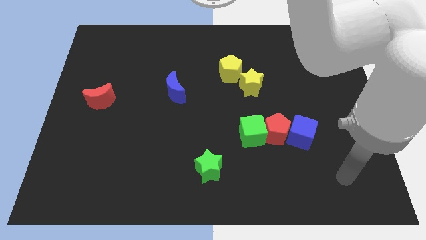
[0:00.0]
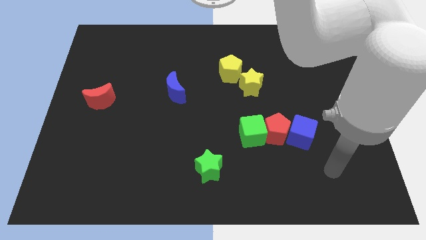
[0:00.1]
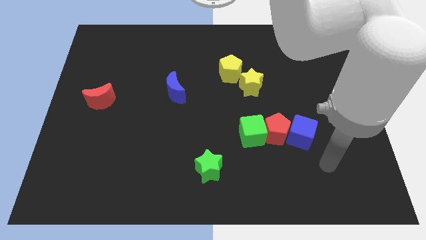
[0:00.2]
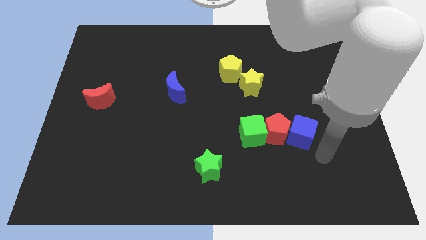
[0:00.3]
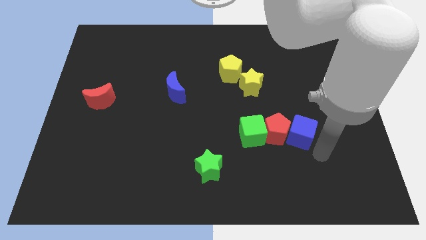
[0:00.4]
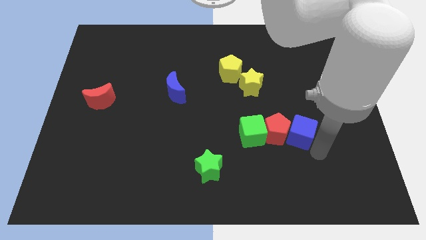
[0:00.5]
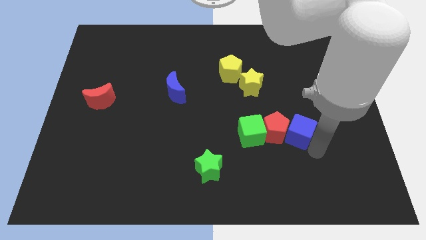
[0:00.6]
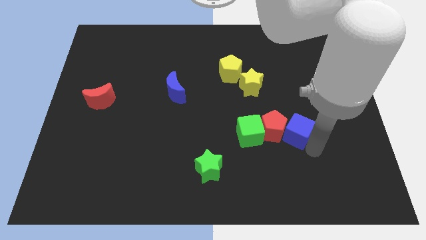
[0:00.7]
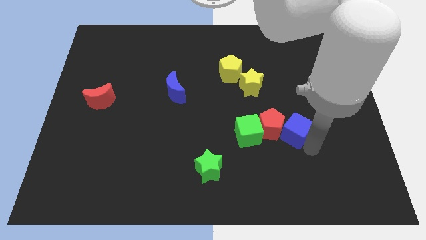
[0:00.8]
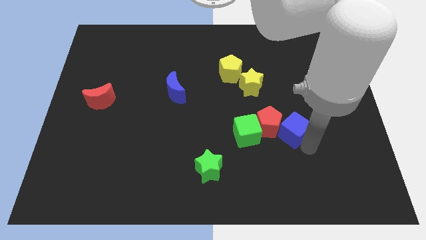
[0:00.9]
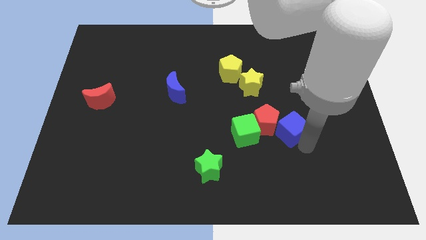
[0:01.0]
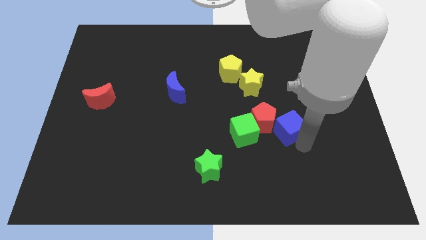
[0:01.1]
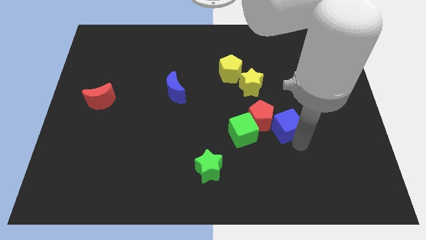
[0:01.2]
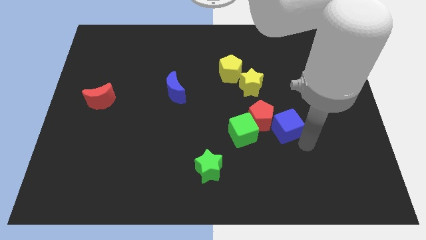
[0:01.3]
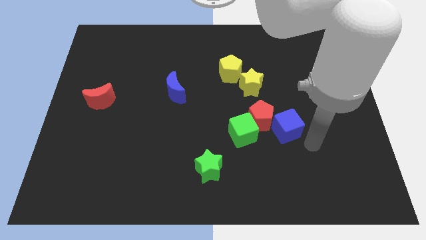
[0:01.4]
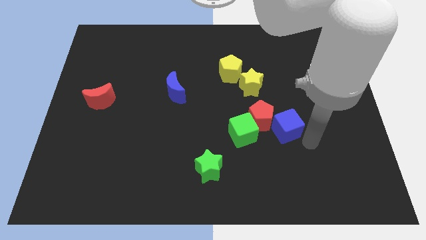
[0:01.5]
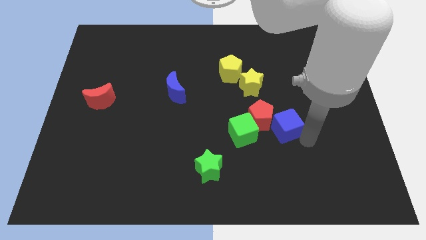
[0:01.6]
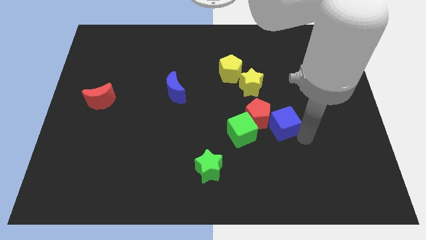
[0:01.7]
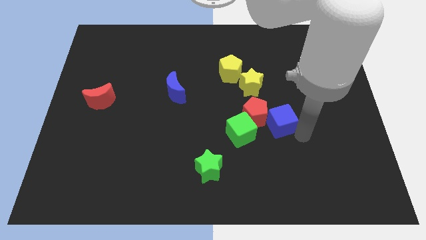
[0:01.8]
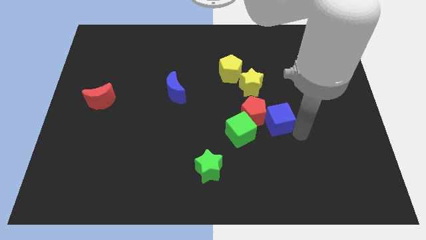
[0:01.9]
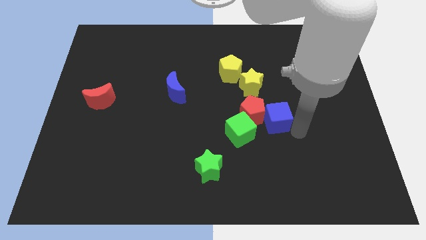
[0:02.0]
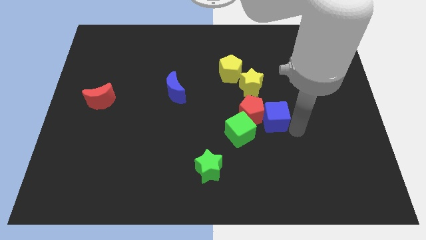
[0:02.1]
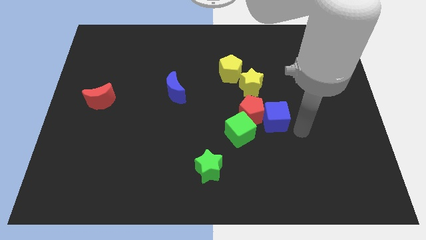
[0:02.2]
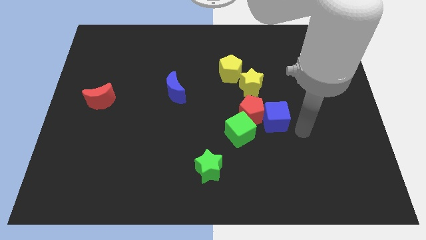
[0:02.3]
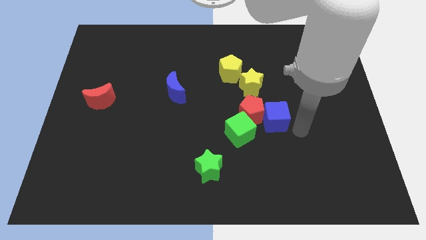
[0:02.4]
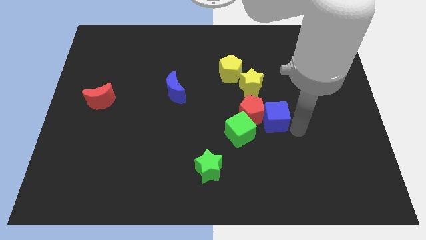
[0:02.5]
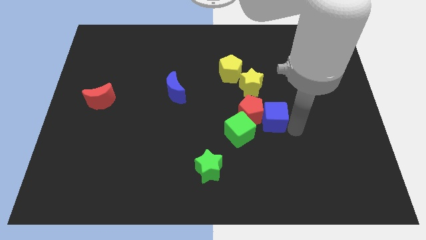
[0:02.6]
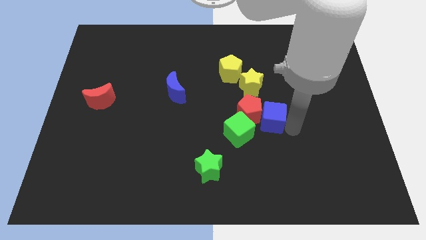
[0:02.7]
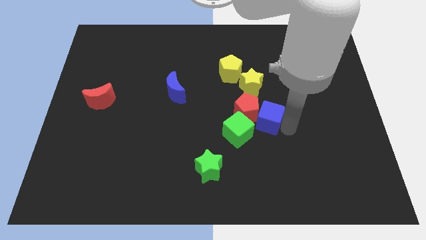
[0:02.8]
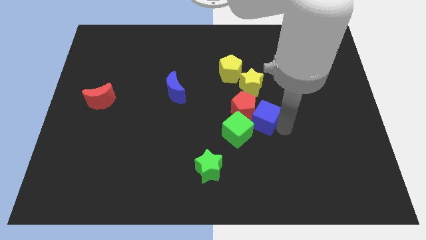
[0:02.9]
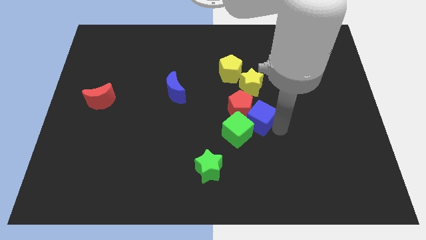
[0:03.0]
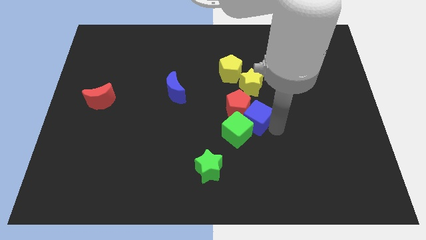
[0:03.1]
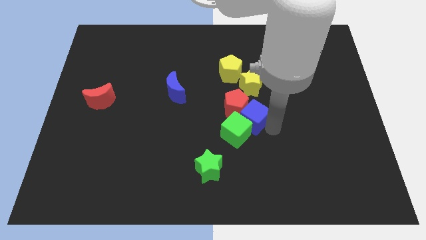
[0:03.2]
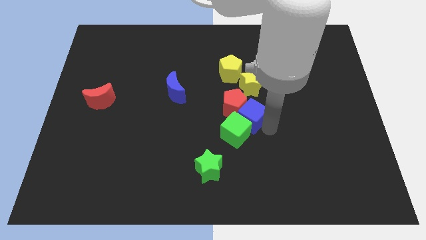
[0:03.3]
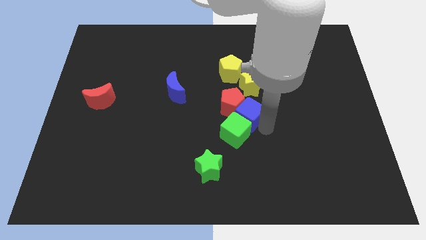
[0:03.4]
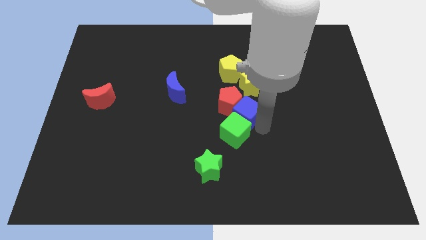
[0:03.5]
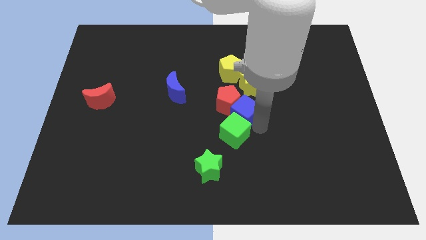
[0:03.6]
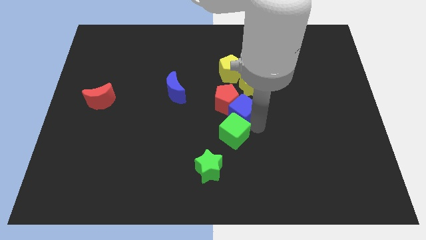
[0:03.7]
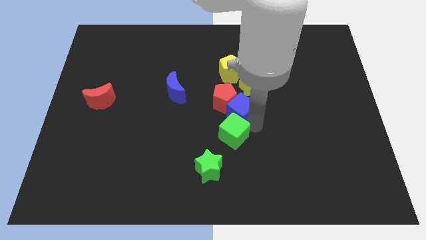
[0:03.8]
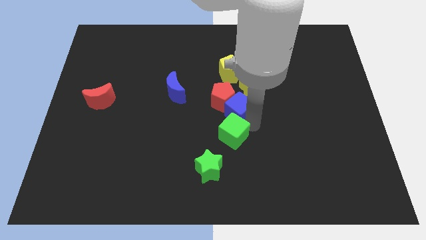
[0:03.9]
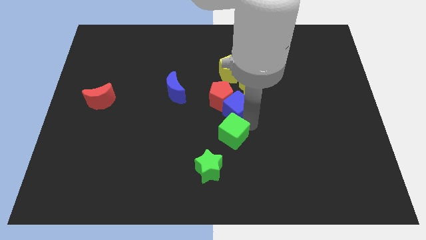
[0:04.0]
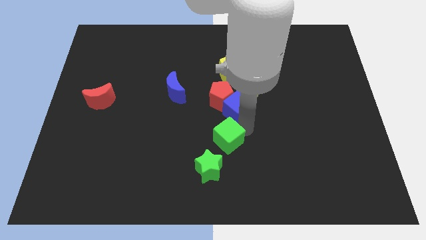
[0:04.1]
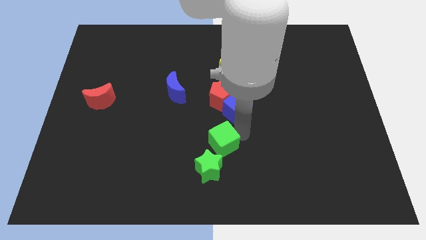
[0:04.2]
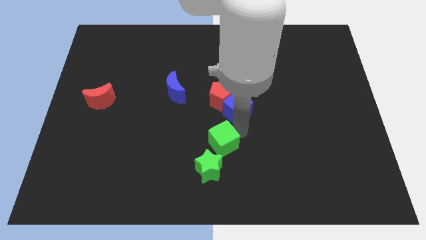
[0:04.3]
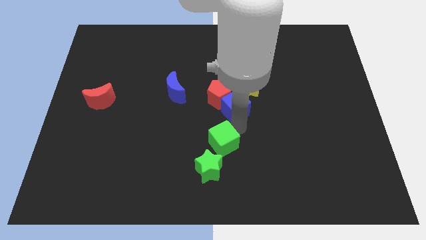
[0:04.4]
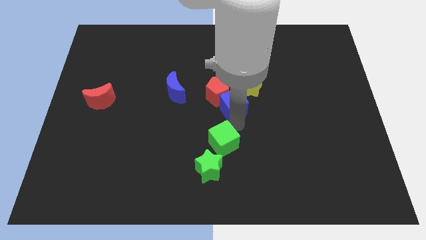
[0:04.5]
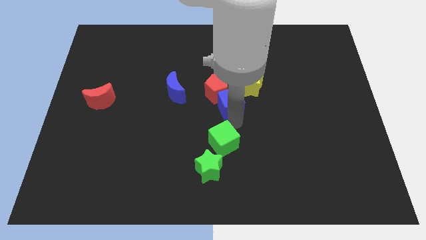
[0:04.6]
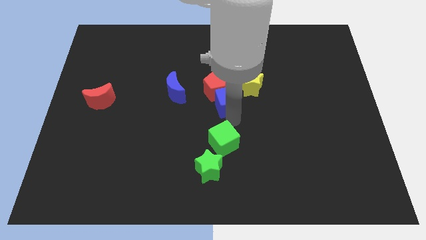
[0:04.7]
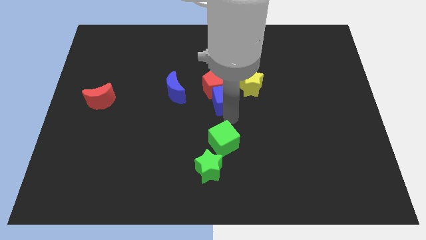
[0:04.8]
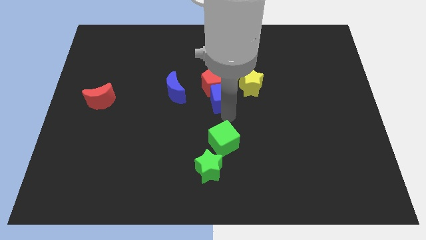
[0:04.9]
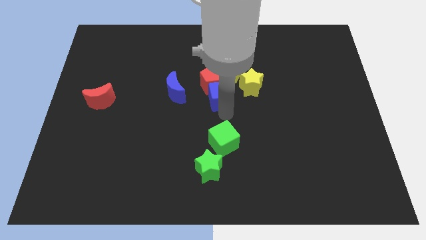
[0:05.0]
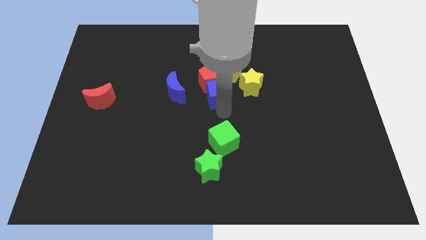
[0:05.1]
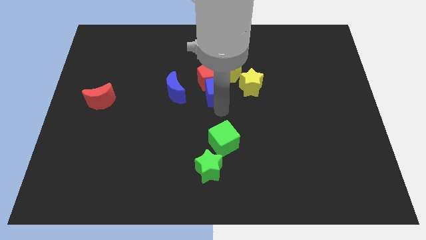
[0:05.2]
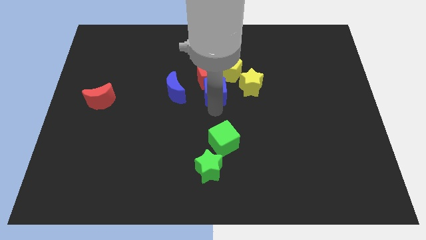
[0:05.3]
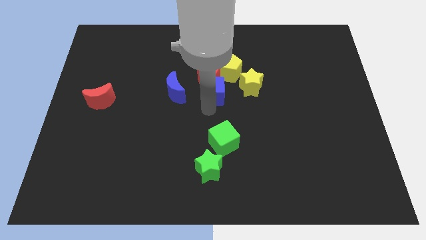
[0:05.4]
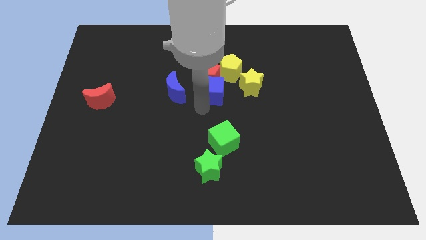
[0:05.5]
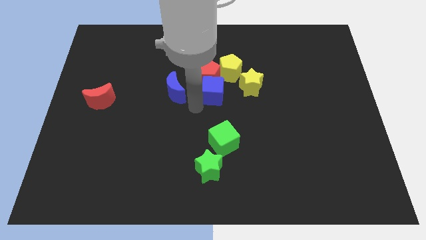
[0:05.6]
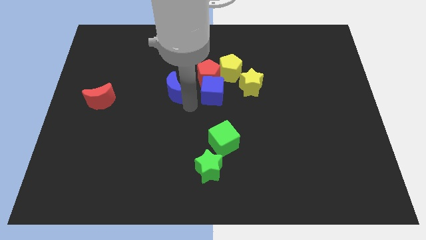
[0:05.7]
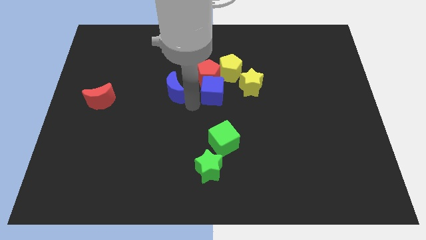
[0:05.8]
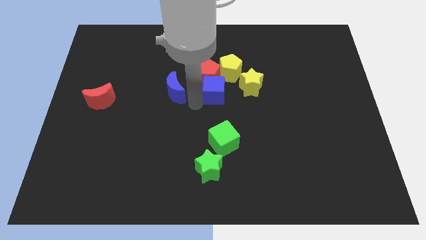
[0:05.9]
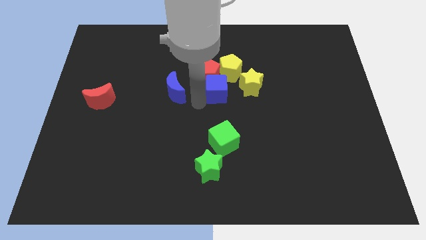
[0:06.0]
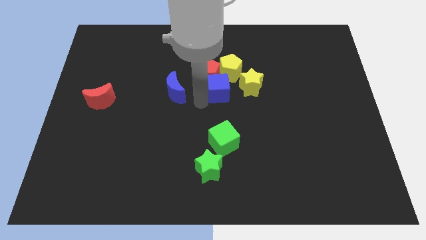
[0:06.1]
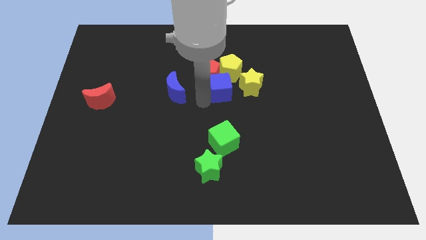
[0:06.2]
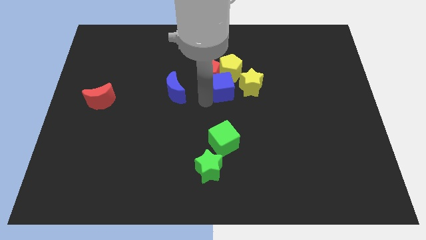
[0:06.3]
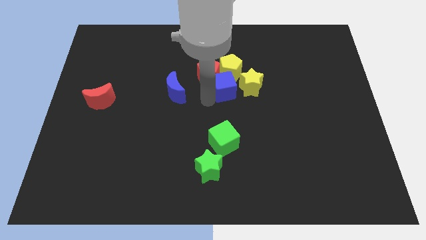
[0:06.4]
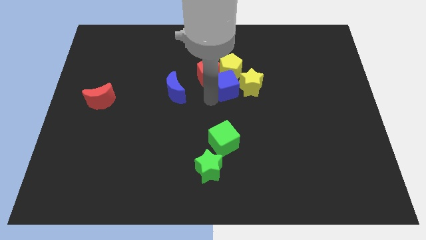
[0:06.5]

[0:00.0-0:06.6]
move the blue cube next to the yellow pentagon

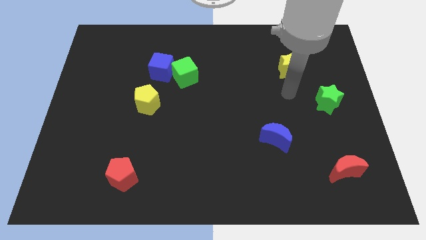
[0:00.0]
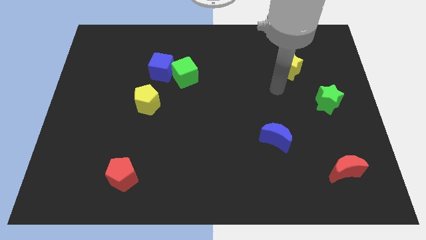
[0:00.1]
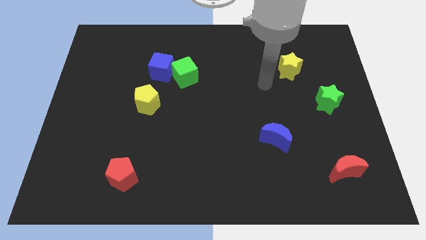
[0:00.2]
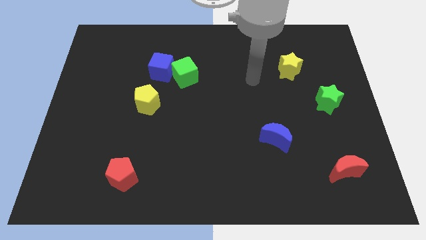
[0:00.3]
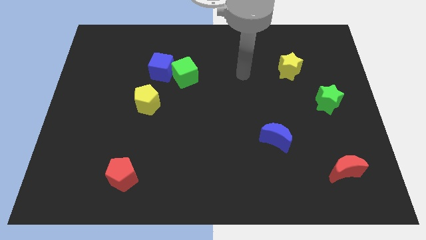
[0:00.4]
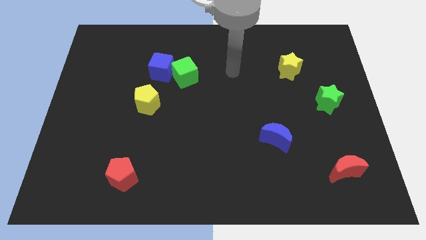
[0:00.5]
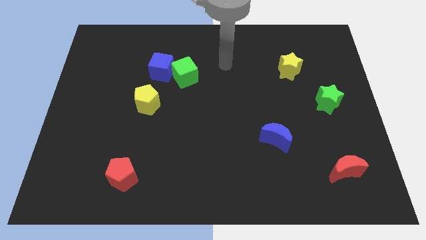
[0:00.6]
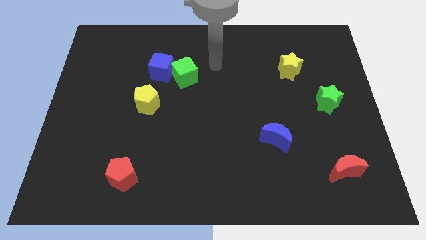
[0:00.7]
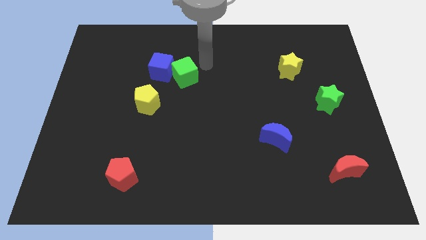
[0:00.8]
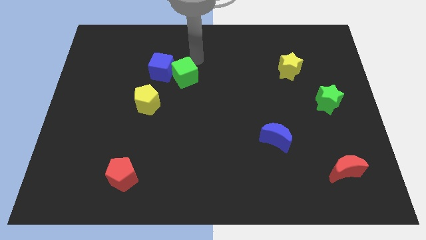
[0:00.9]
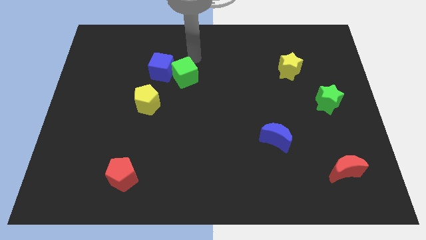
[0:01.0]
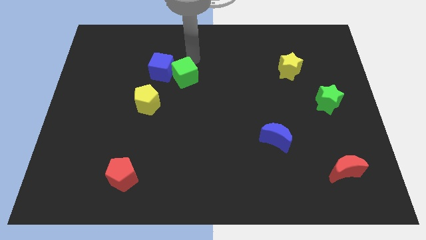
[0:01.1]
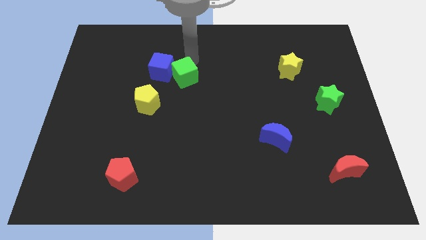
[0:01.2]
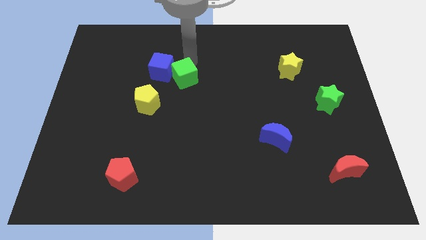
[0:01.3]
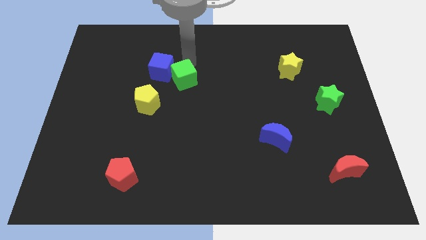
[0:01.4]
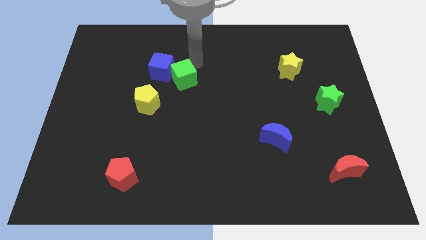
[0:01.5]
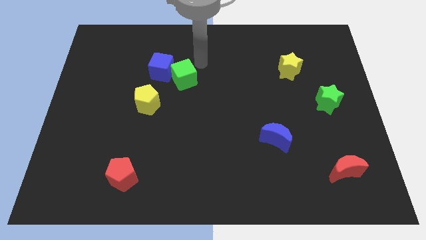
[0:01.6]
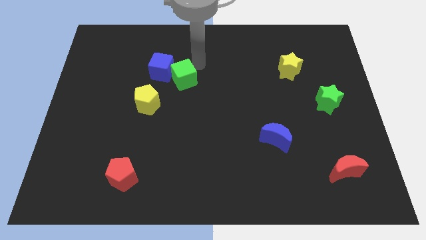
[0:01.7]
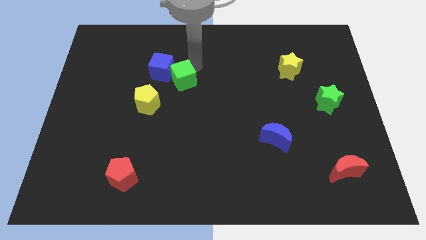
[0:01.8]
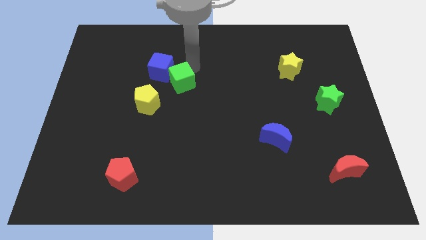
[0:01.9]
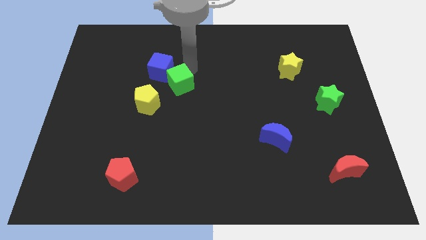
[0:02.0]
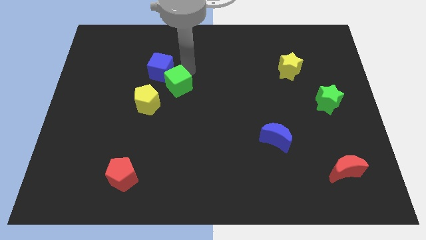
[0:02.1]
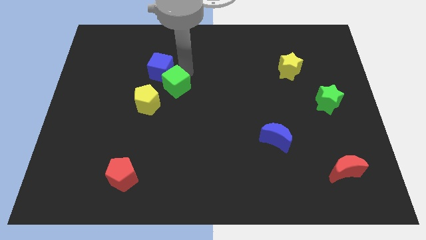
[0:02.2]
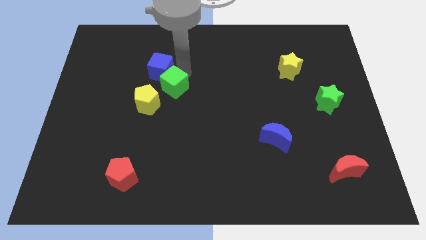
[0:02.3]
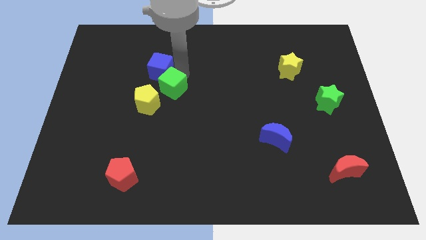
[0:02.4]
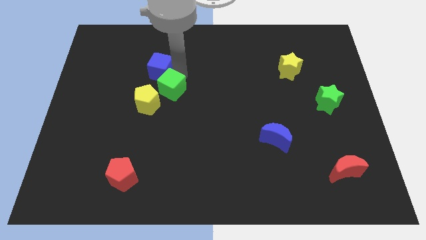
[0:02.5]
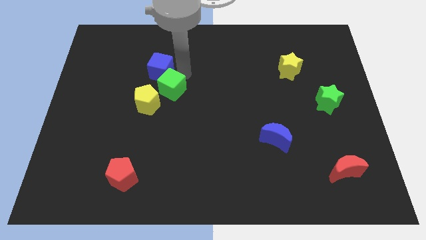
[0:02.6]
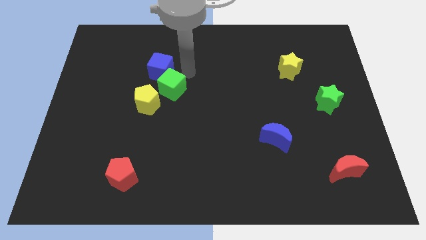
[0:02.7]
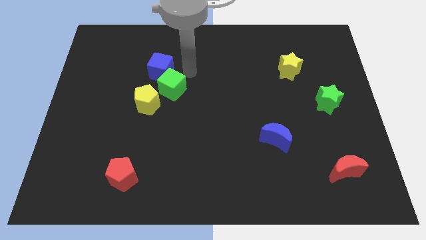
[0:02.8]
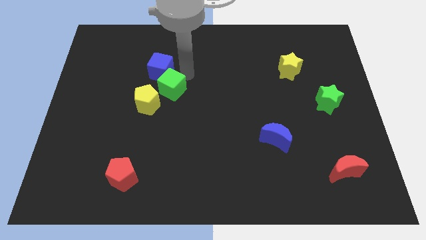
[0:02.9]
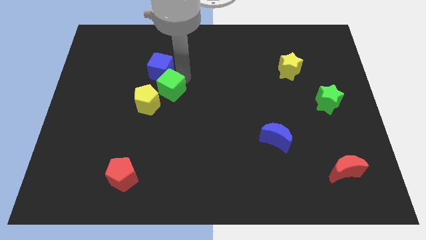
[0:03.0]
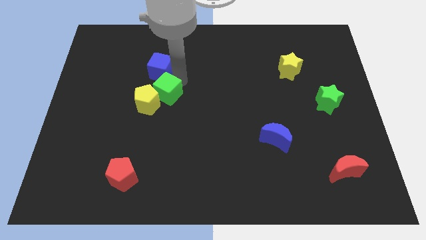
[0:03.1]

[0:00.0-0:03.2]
slide the green cube towards the yellow pentagon
